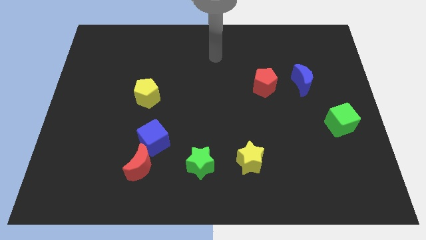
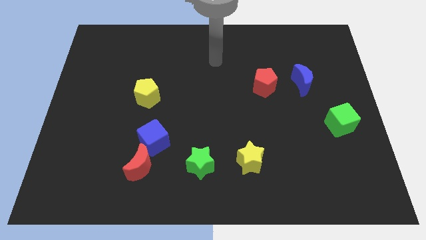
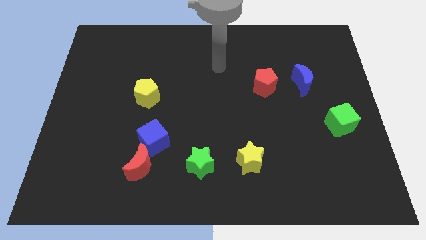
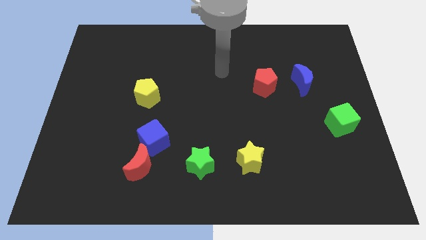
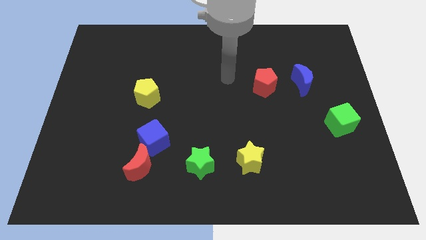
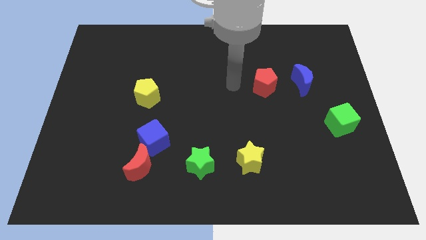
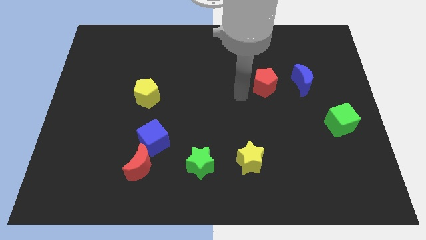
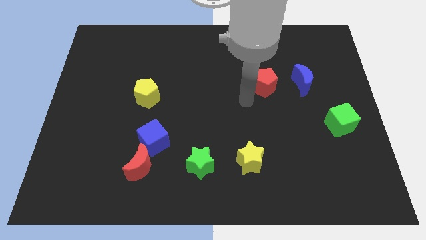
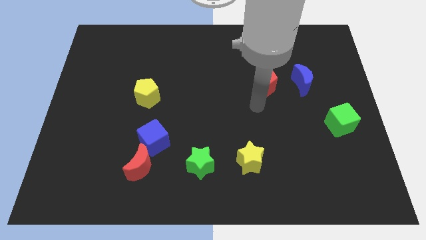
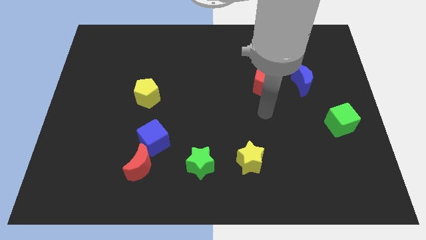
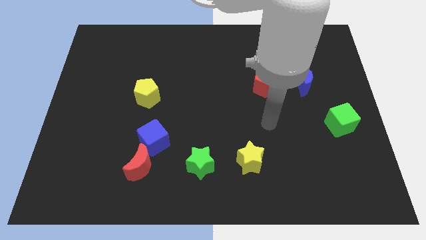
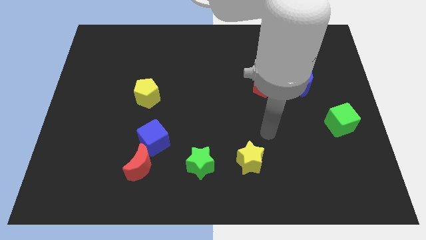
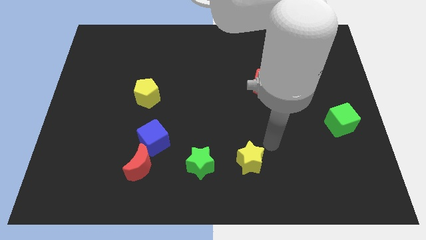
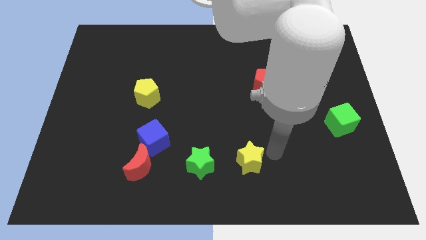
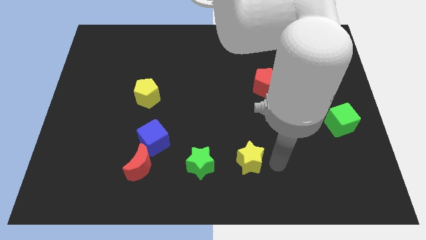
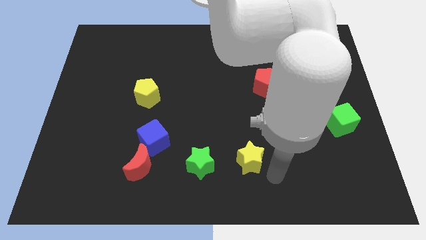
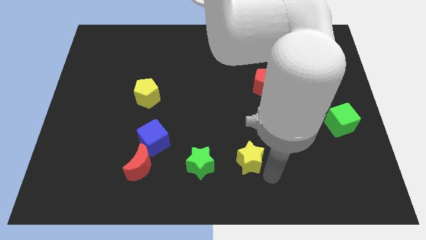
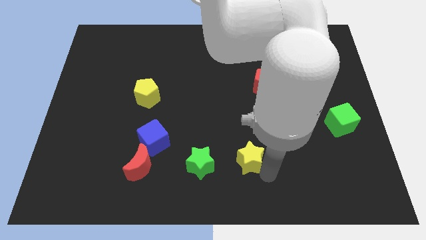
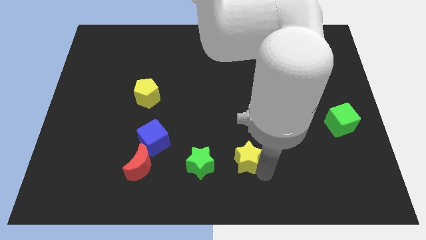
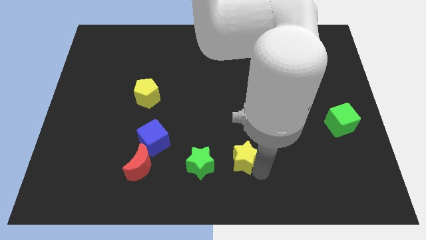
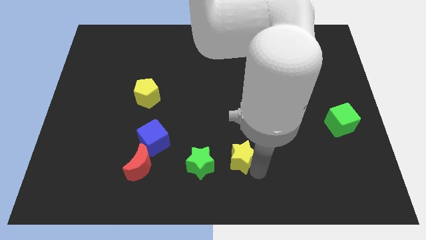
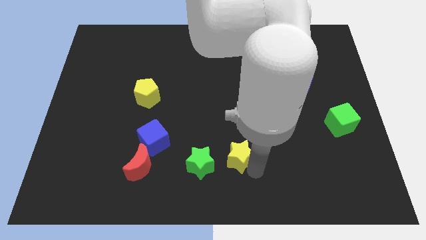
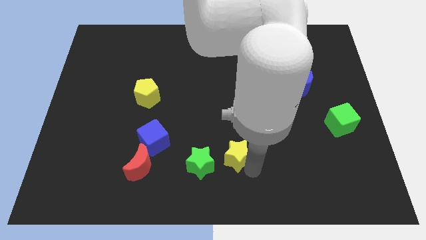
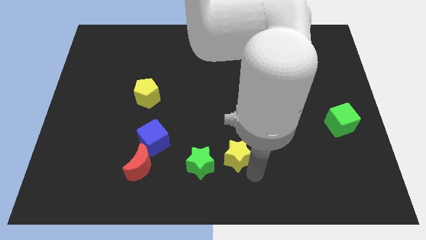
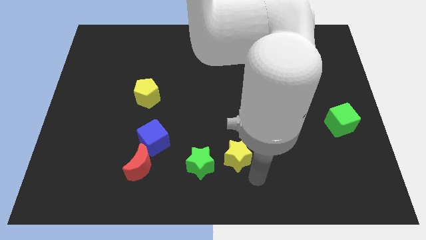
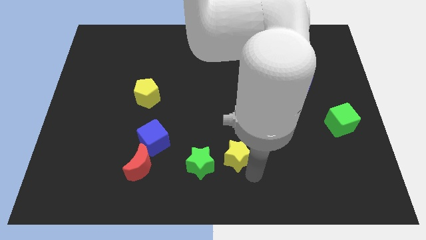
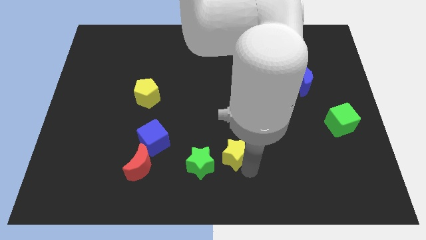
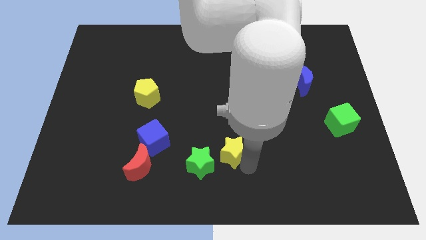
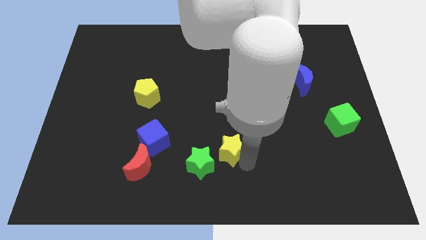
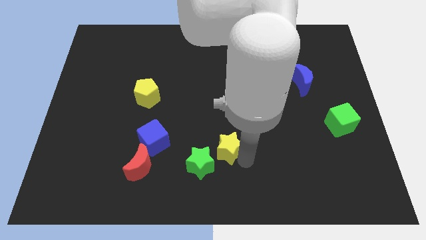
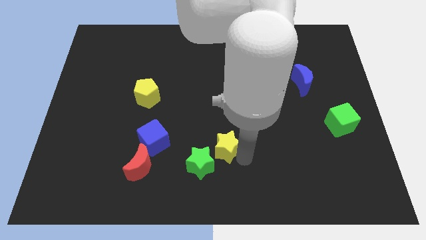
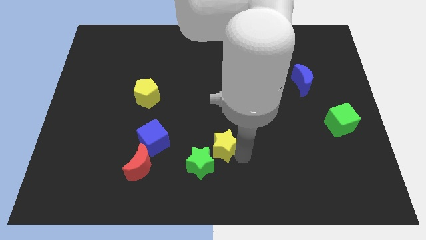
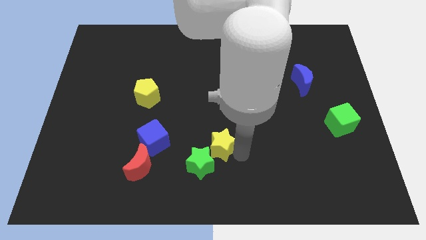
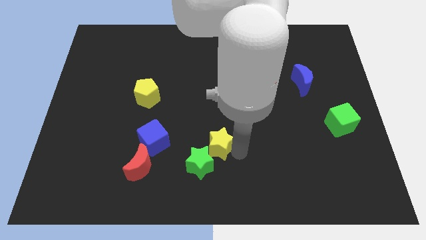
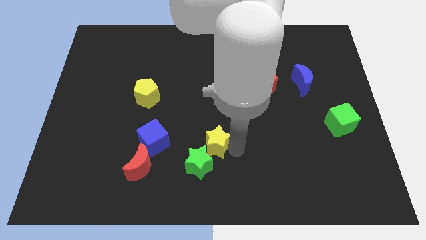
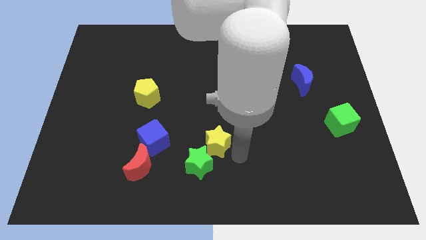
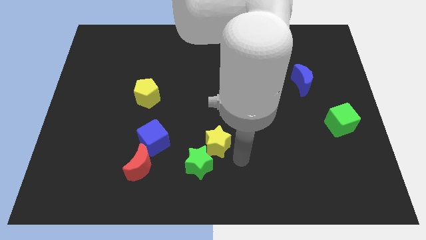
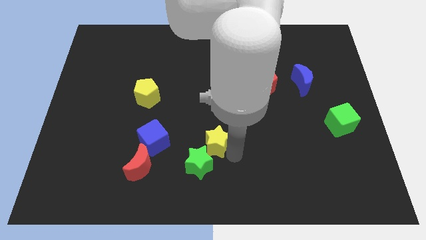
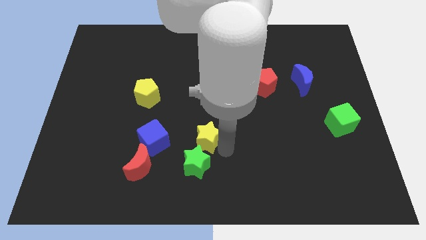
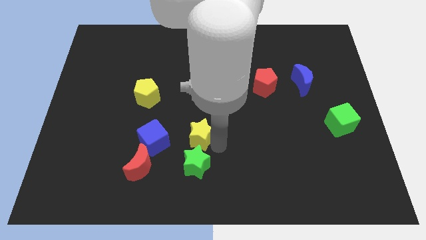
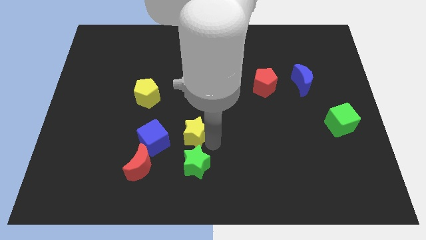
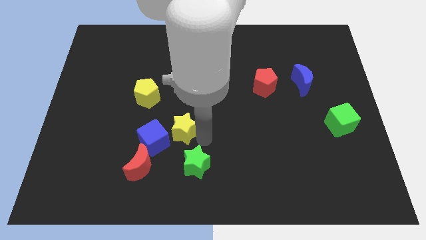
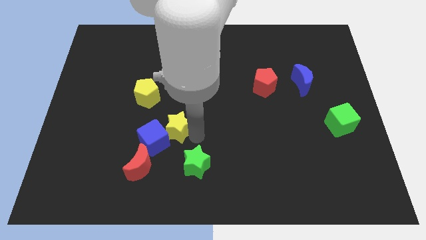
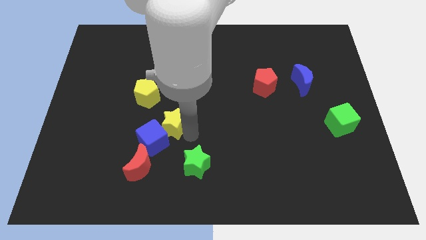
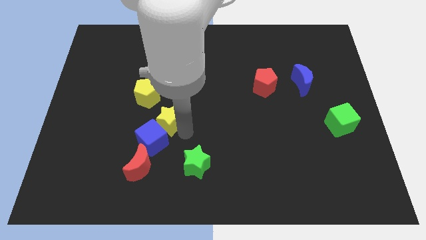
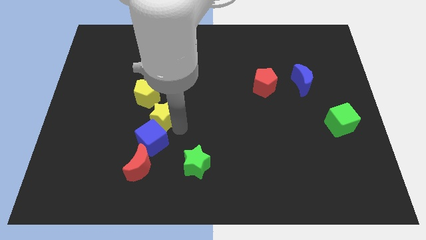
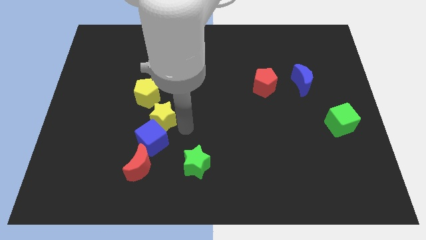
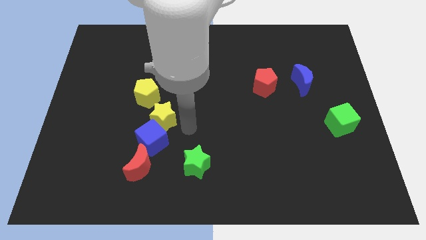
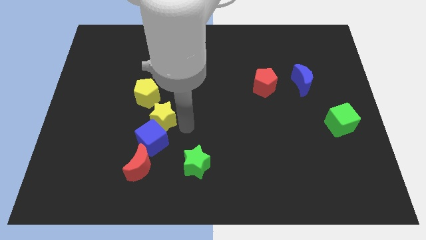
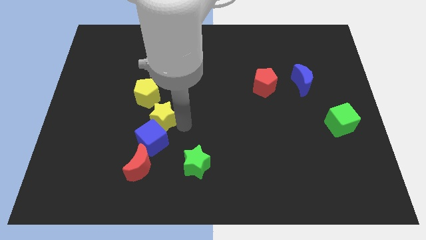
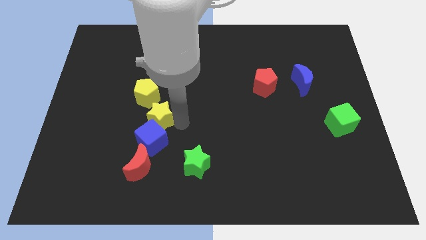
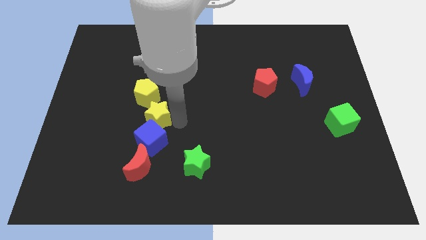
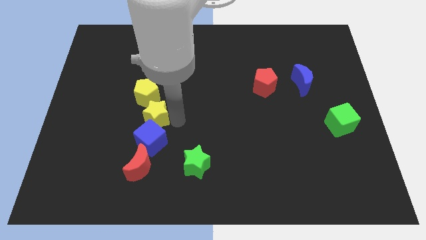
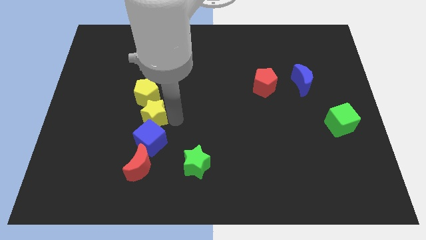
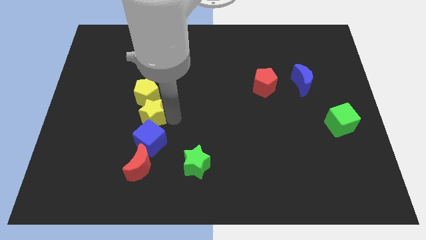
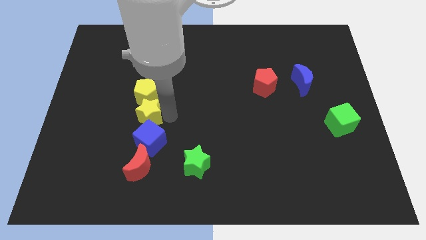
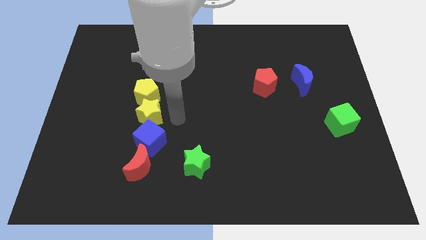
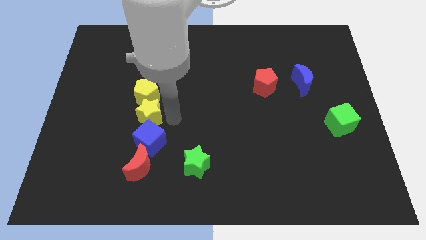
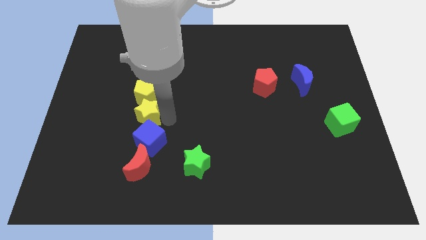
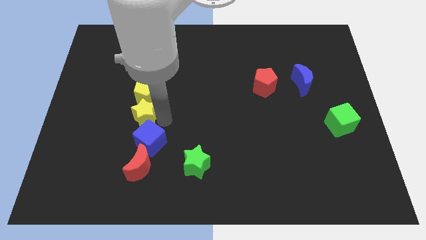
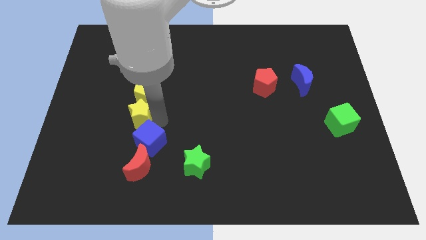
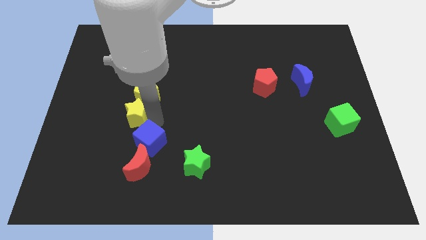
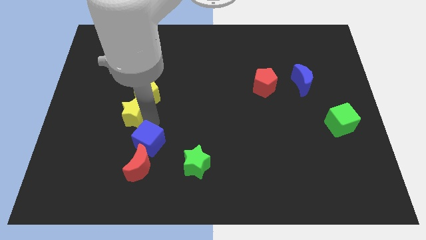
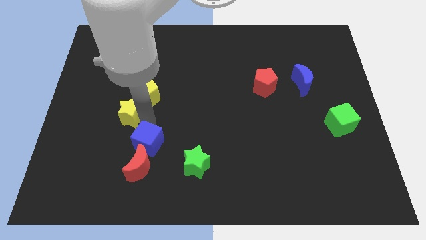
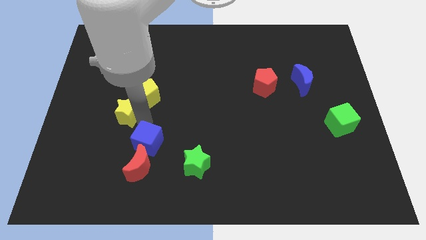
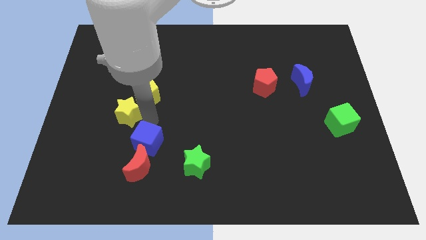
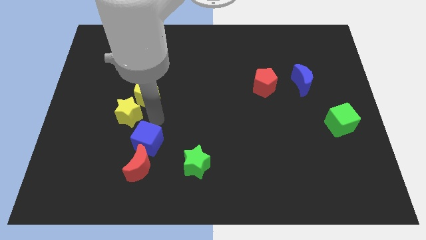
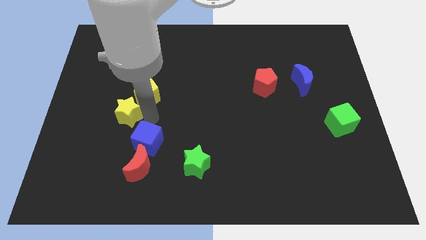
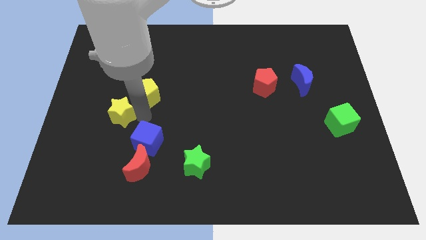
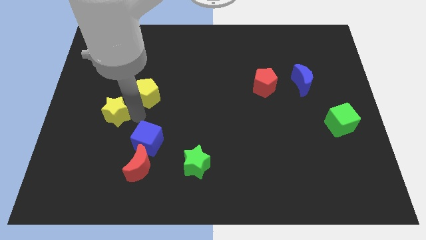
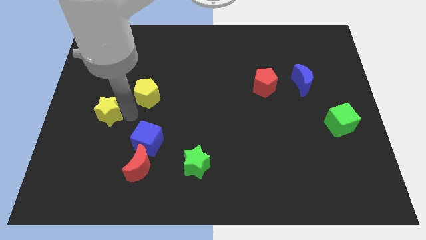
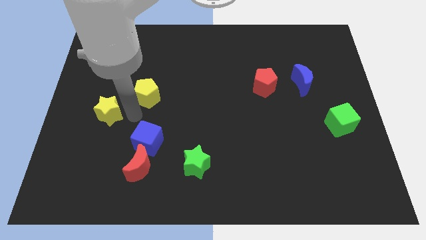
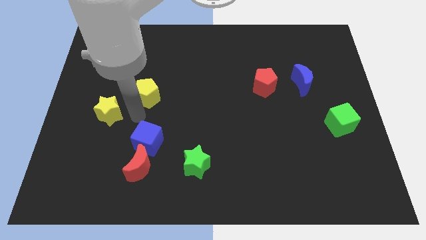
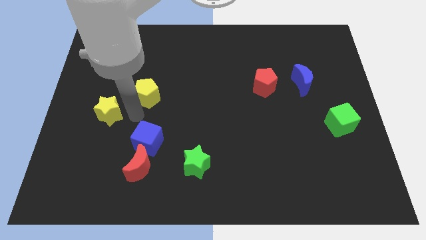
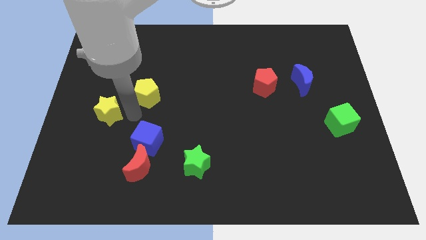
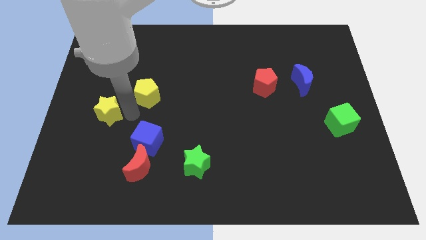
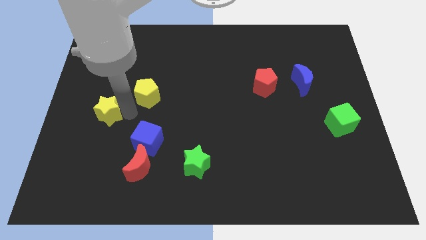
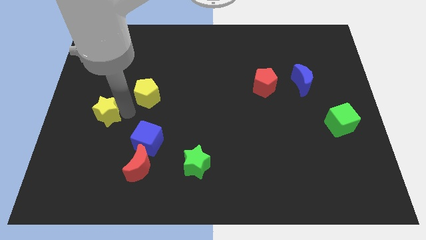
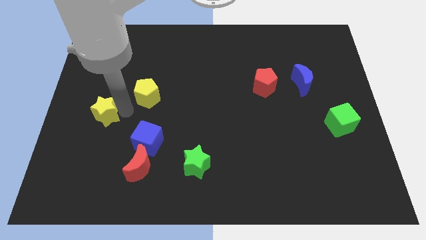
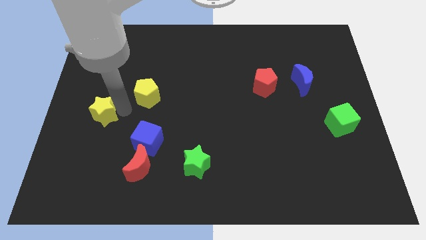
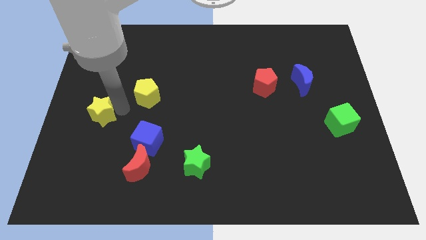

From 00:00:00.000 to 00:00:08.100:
push the yellow star to the center left
